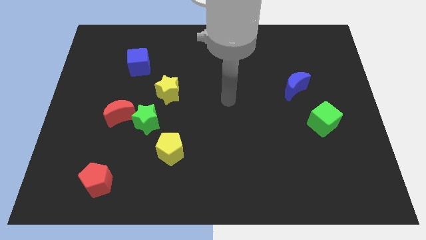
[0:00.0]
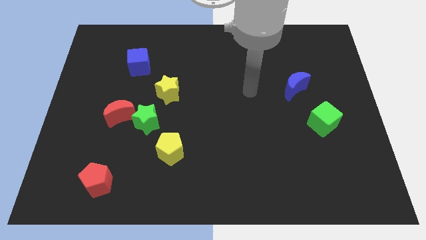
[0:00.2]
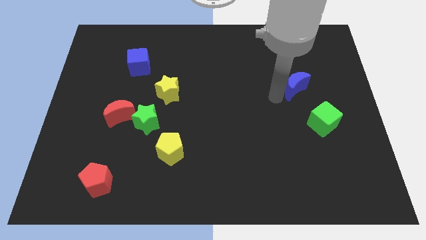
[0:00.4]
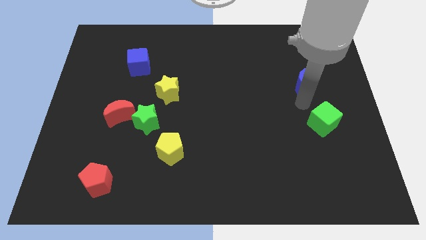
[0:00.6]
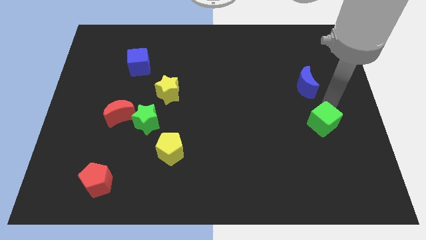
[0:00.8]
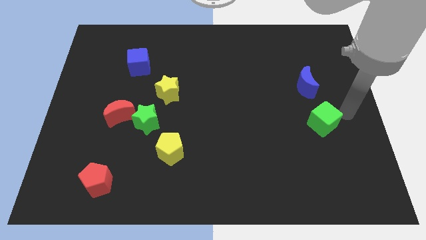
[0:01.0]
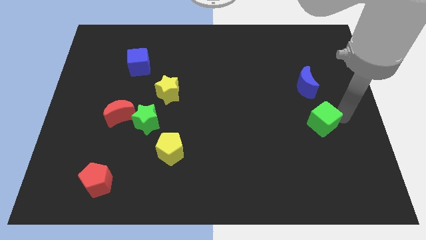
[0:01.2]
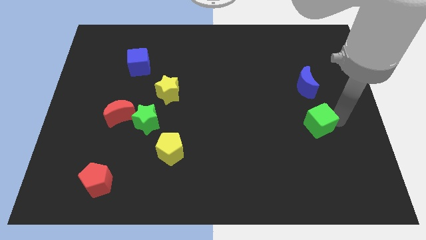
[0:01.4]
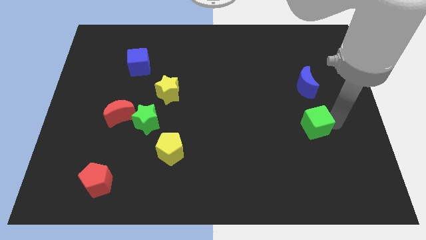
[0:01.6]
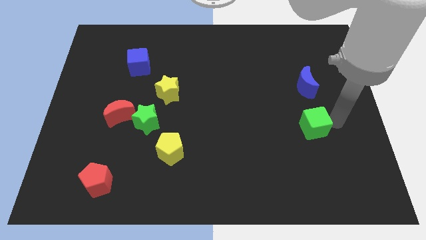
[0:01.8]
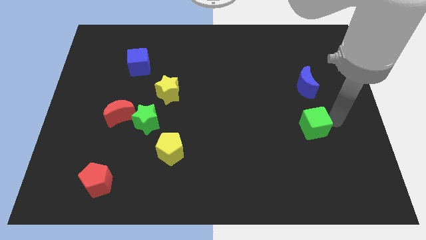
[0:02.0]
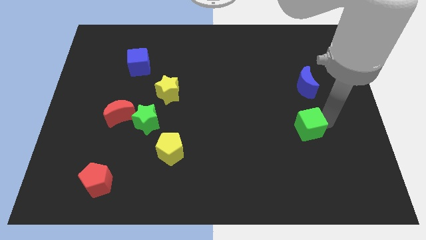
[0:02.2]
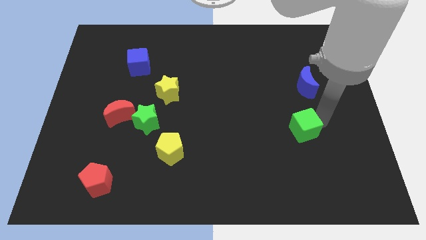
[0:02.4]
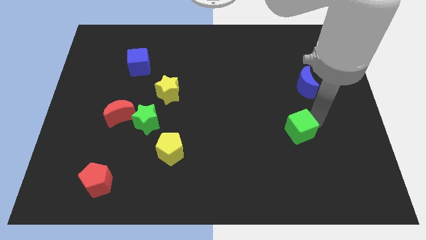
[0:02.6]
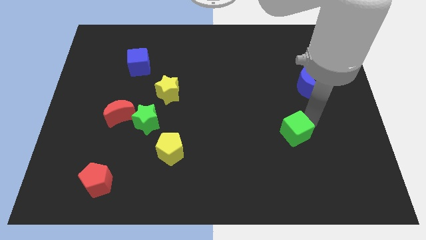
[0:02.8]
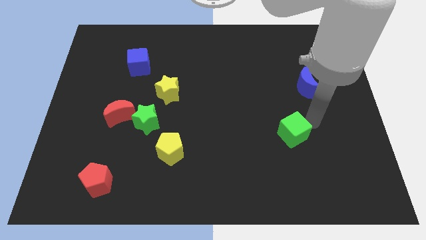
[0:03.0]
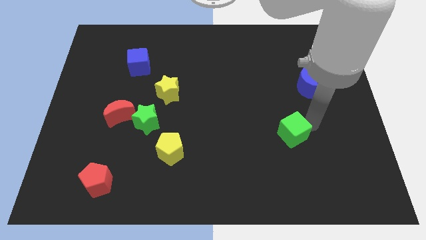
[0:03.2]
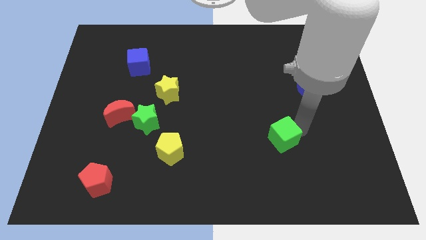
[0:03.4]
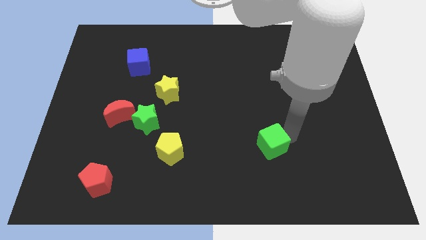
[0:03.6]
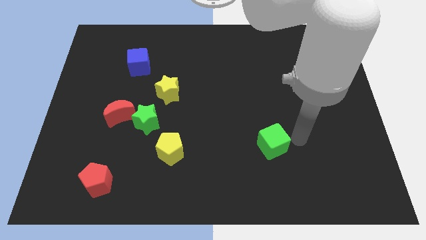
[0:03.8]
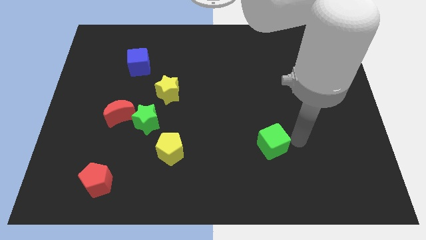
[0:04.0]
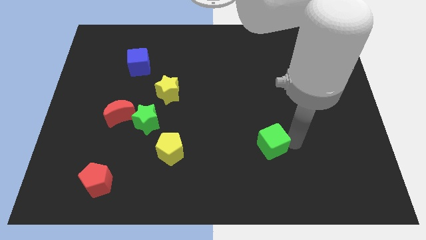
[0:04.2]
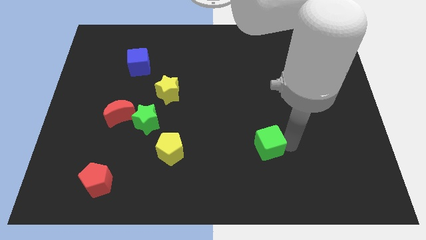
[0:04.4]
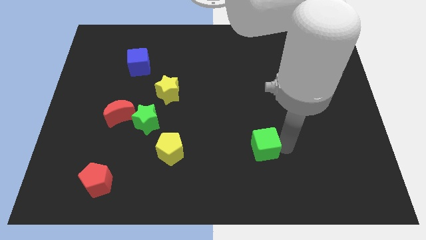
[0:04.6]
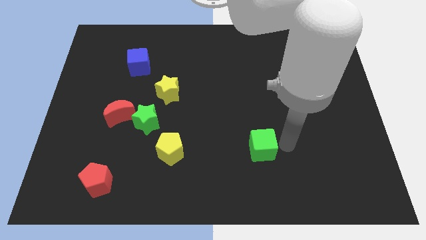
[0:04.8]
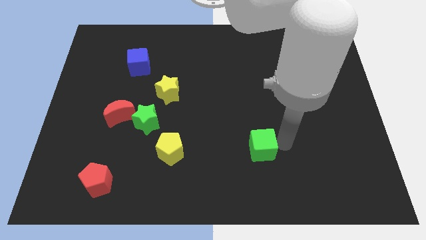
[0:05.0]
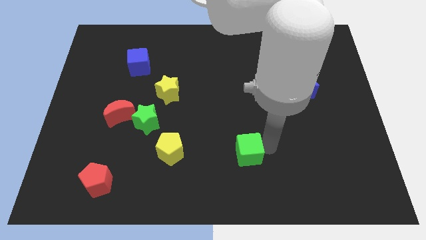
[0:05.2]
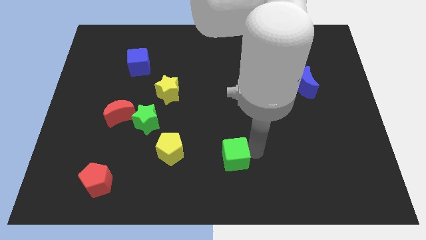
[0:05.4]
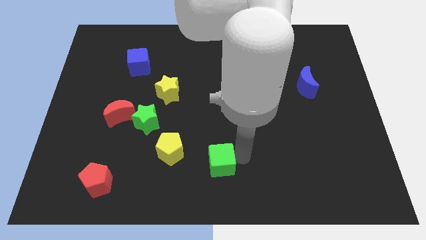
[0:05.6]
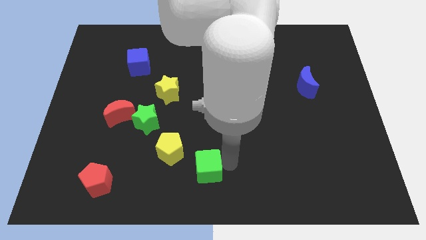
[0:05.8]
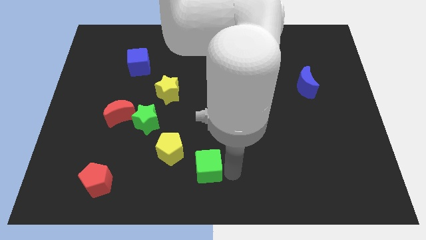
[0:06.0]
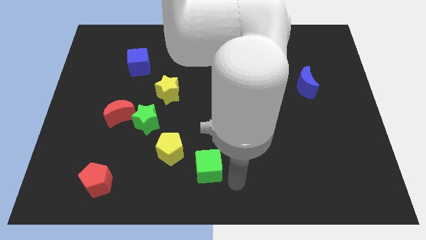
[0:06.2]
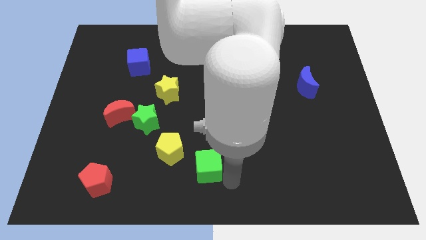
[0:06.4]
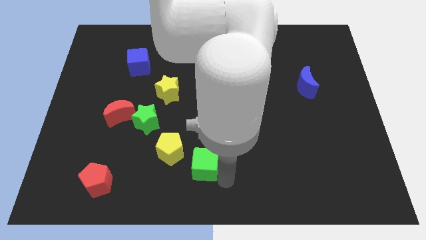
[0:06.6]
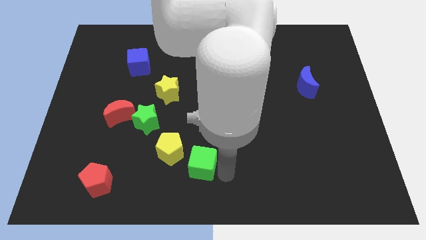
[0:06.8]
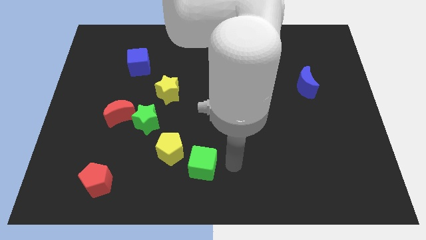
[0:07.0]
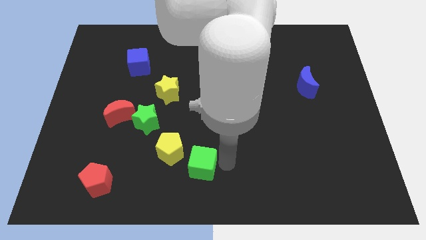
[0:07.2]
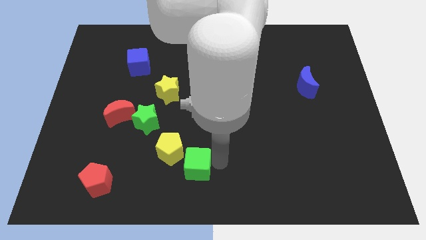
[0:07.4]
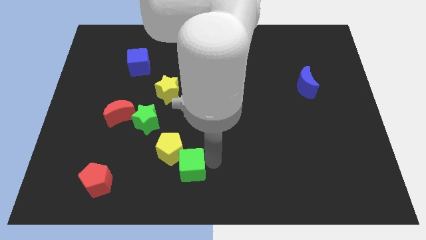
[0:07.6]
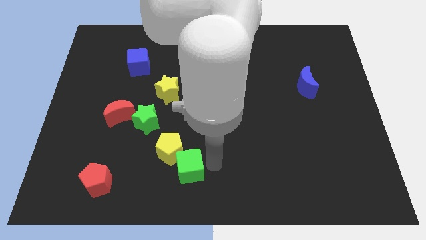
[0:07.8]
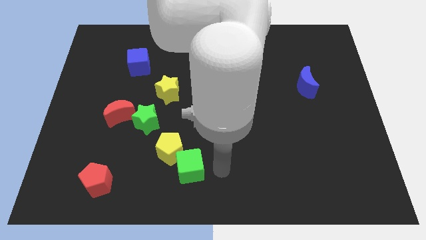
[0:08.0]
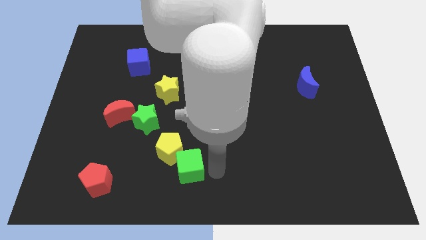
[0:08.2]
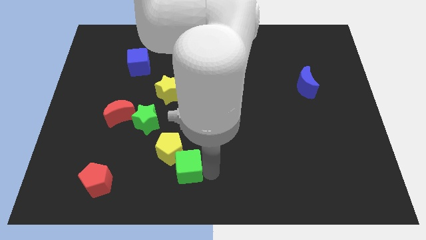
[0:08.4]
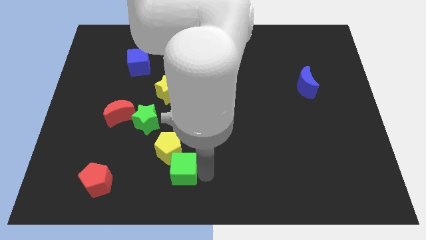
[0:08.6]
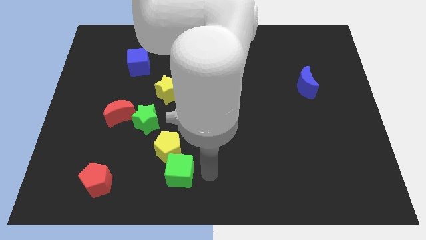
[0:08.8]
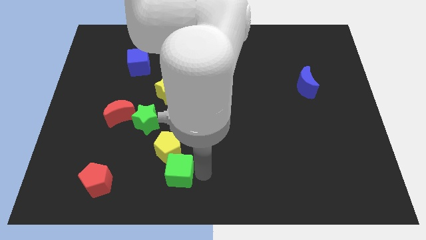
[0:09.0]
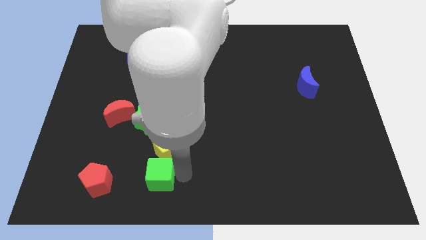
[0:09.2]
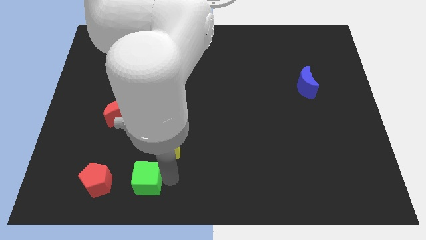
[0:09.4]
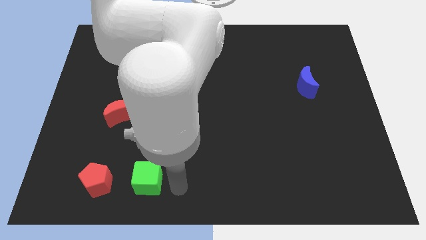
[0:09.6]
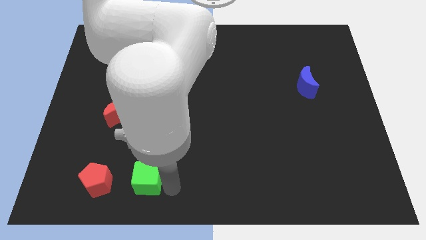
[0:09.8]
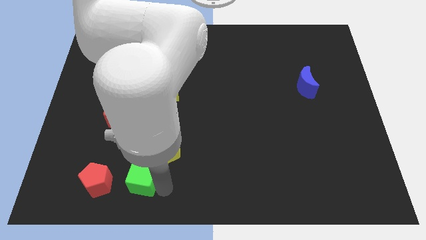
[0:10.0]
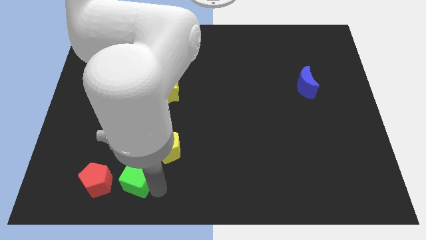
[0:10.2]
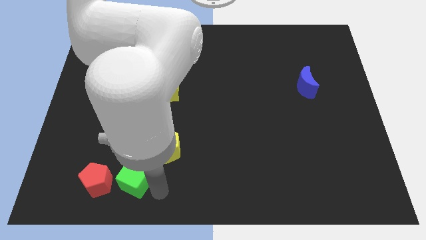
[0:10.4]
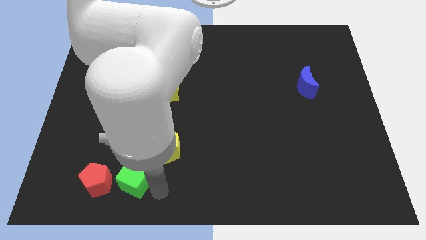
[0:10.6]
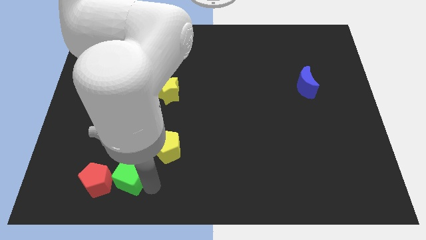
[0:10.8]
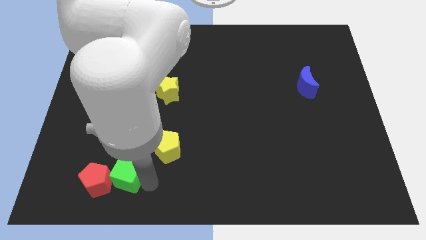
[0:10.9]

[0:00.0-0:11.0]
slide the green cube to the red pentagon

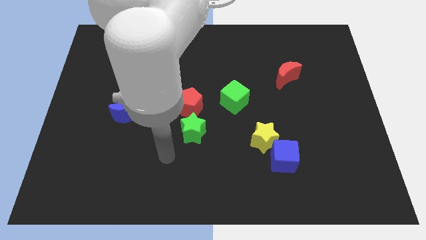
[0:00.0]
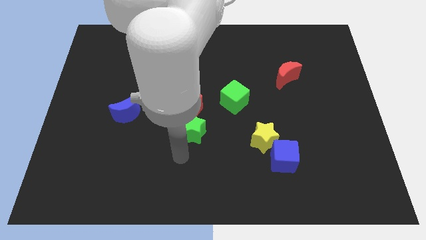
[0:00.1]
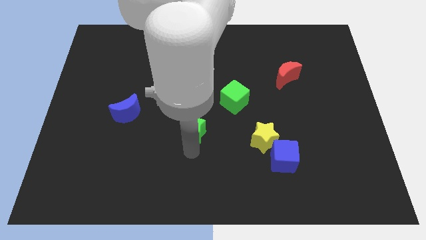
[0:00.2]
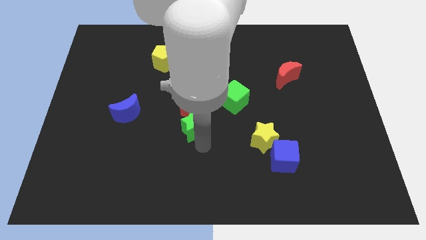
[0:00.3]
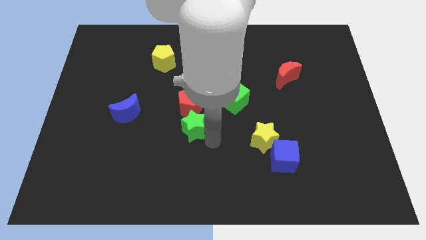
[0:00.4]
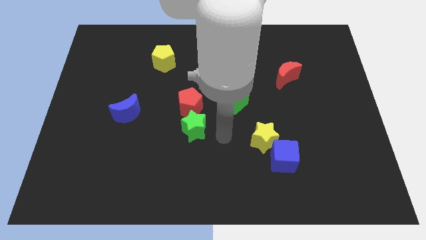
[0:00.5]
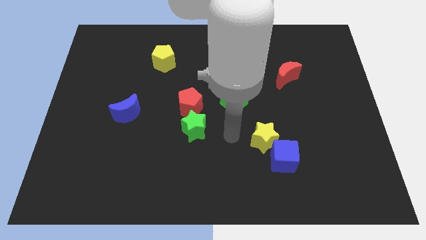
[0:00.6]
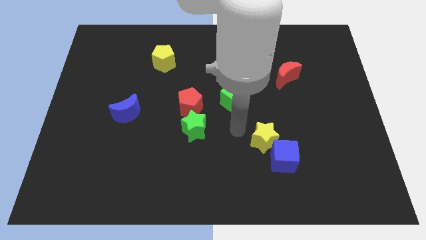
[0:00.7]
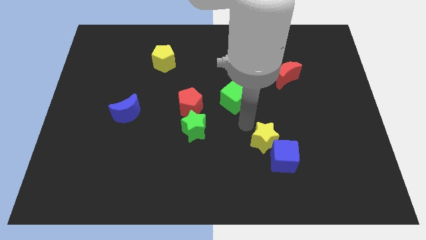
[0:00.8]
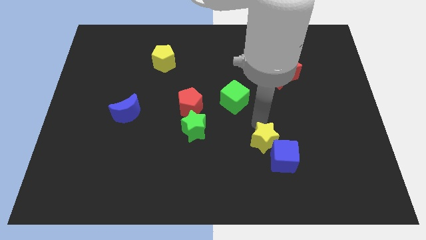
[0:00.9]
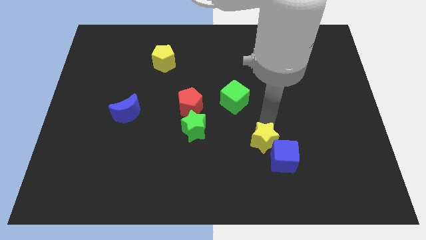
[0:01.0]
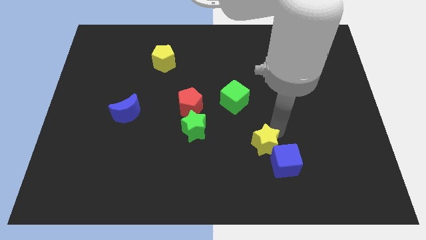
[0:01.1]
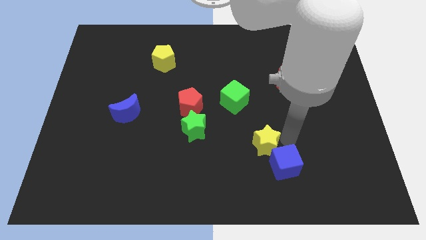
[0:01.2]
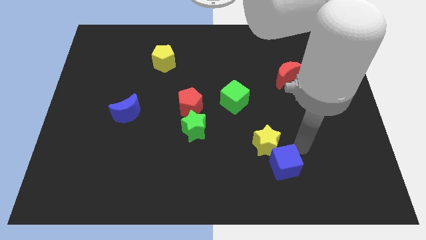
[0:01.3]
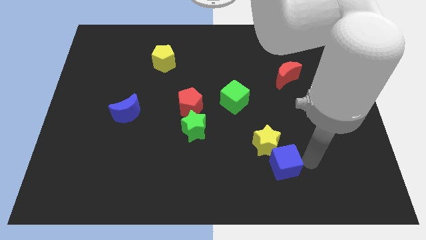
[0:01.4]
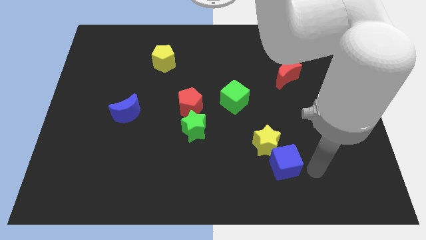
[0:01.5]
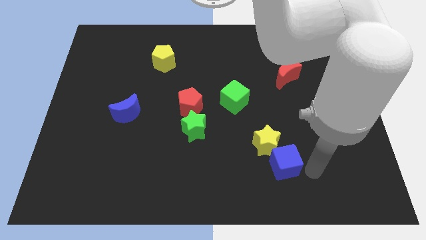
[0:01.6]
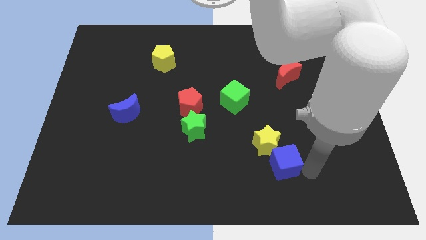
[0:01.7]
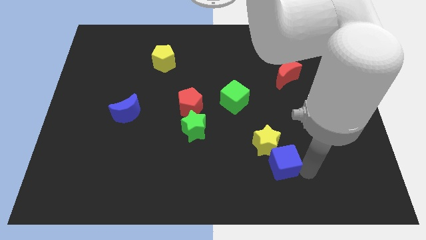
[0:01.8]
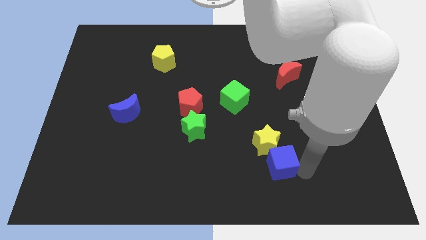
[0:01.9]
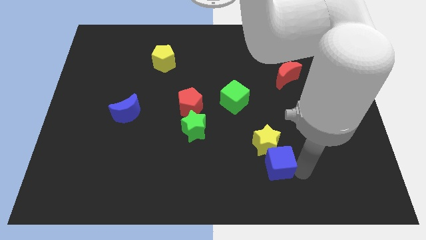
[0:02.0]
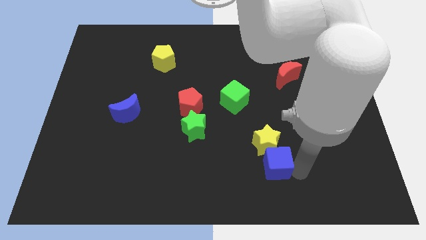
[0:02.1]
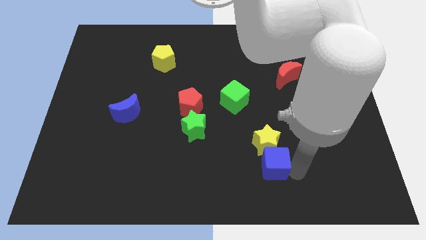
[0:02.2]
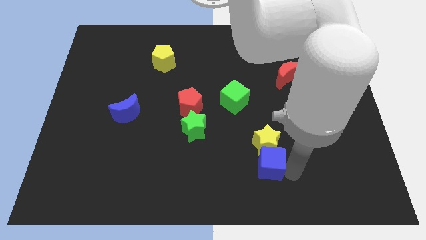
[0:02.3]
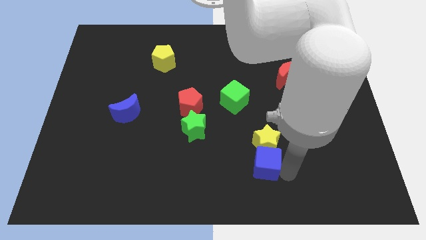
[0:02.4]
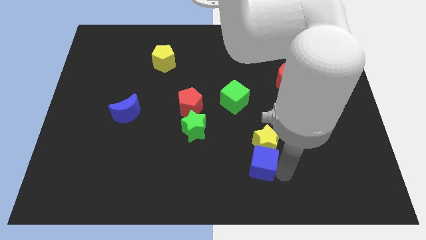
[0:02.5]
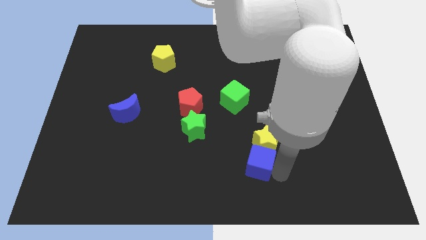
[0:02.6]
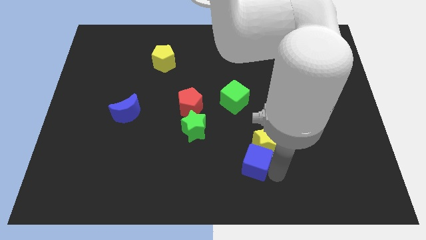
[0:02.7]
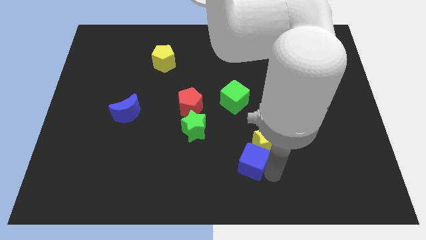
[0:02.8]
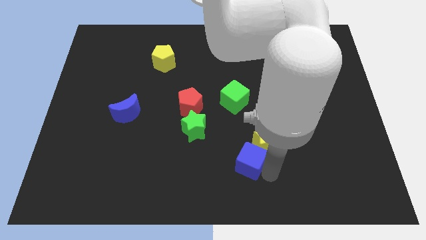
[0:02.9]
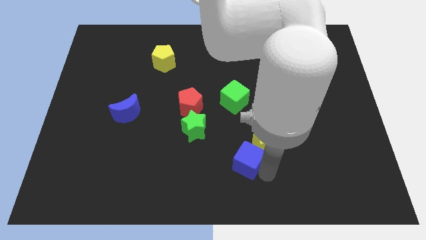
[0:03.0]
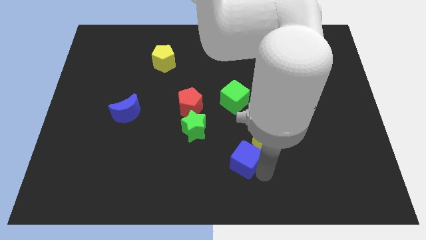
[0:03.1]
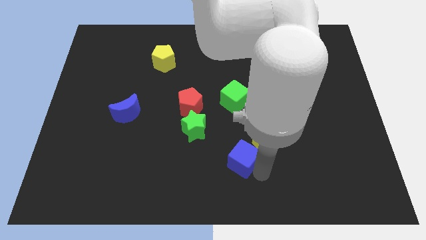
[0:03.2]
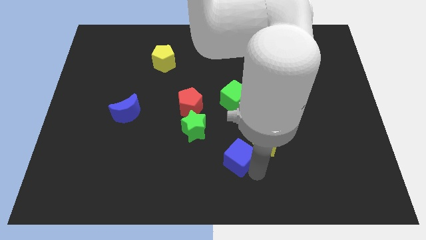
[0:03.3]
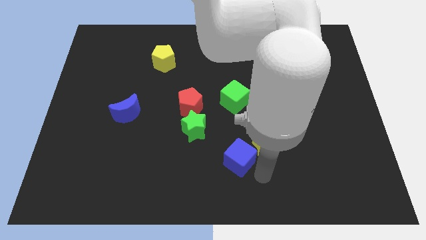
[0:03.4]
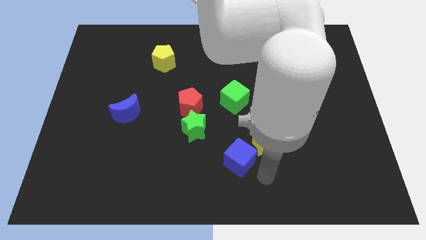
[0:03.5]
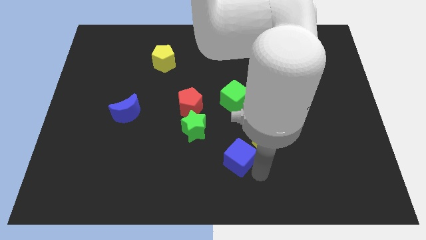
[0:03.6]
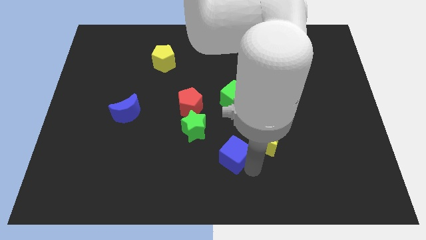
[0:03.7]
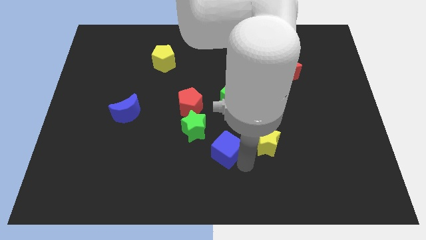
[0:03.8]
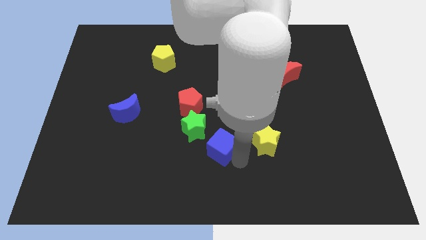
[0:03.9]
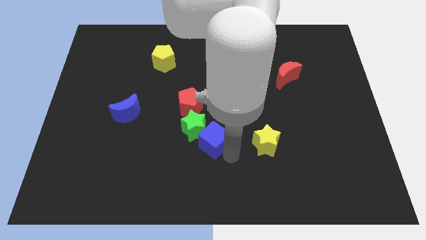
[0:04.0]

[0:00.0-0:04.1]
push the blue cube towards the green star
